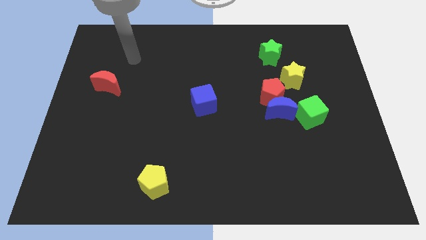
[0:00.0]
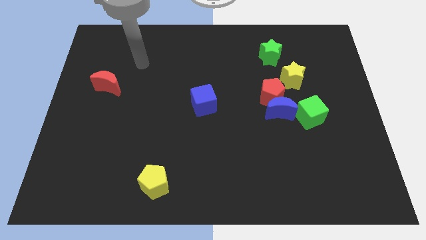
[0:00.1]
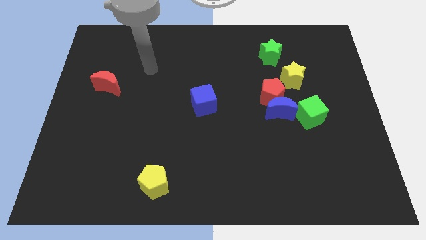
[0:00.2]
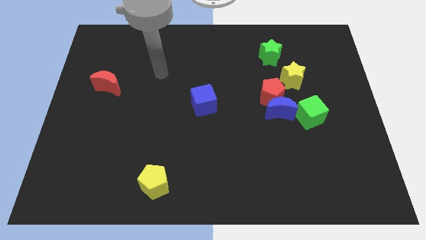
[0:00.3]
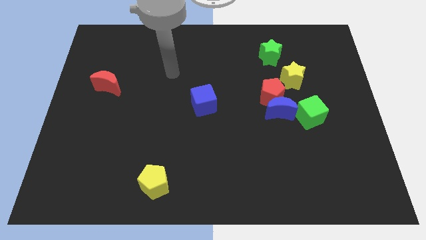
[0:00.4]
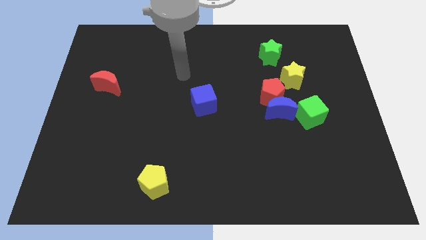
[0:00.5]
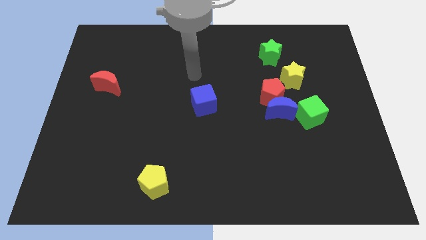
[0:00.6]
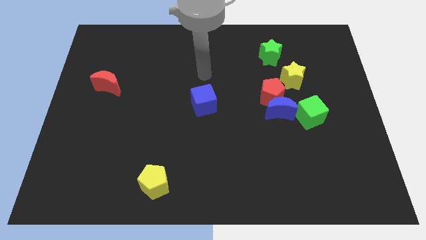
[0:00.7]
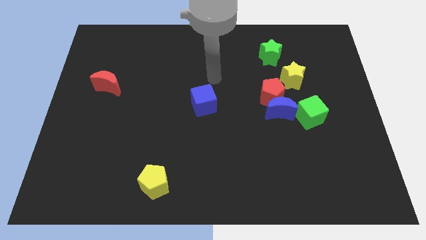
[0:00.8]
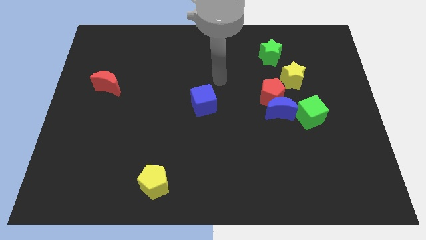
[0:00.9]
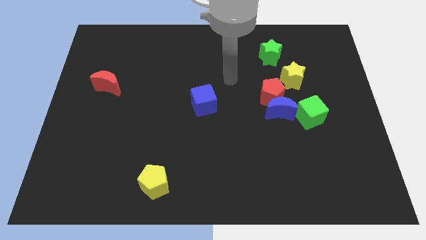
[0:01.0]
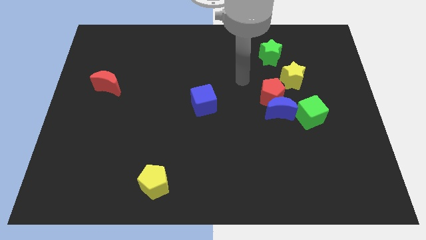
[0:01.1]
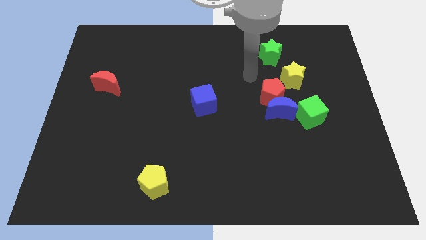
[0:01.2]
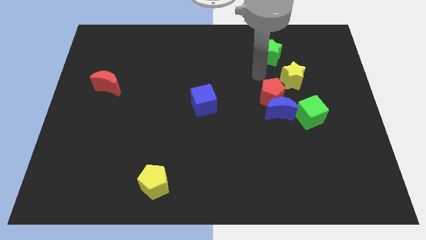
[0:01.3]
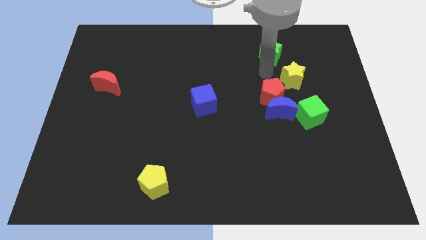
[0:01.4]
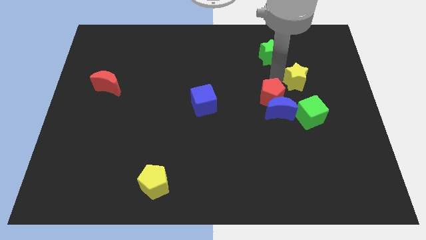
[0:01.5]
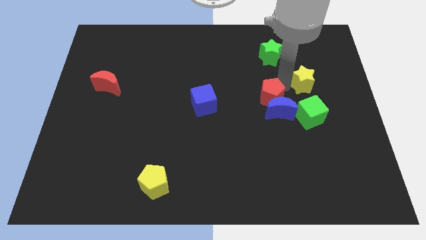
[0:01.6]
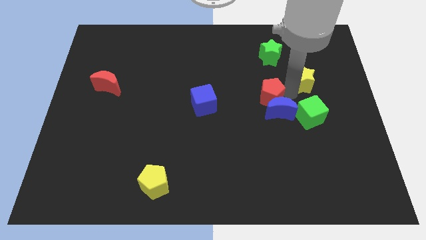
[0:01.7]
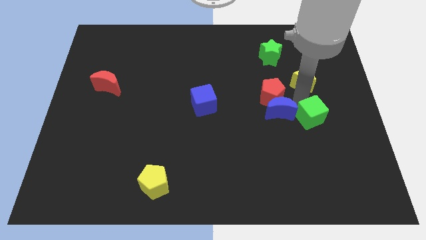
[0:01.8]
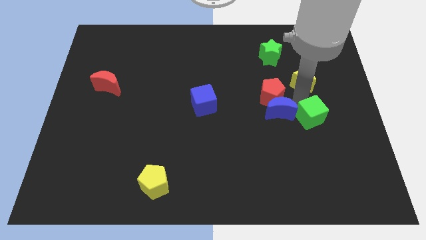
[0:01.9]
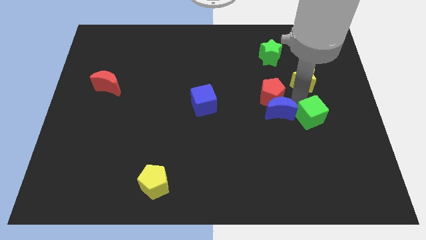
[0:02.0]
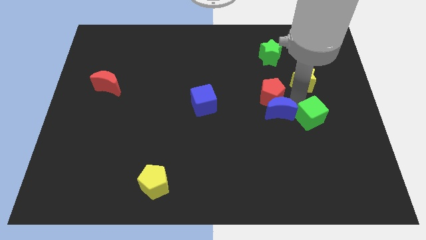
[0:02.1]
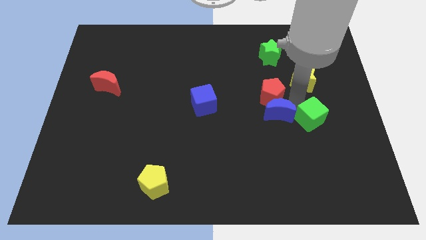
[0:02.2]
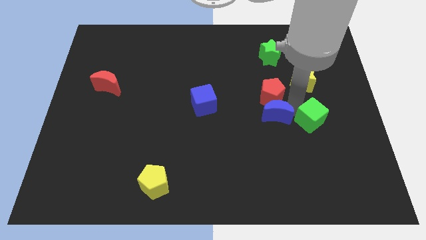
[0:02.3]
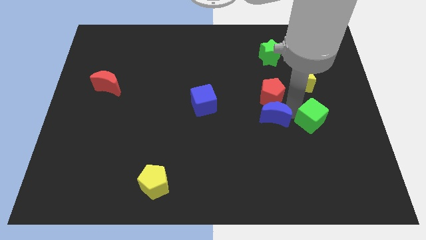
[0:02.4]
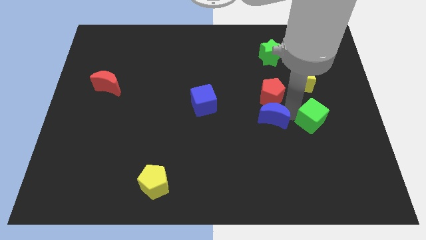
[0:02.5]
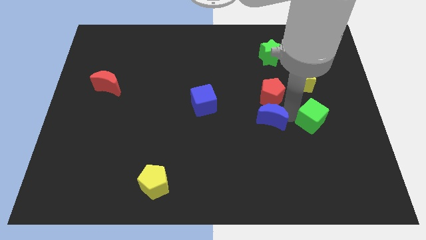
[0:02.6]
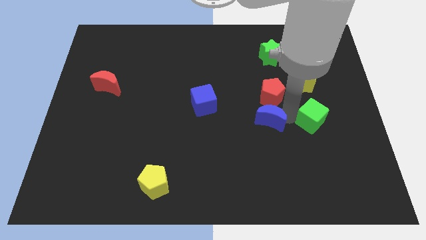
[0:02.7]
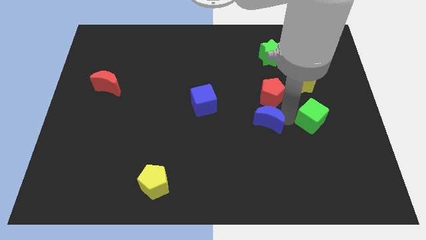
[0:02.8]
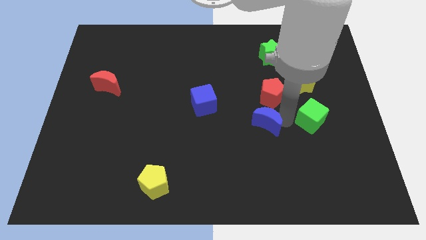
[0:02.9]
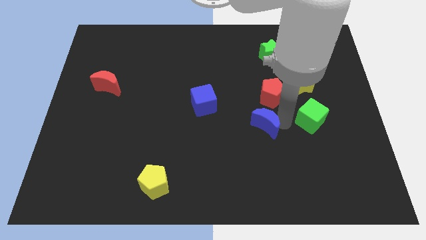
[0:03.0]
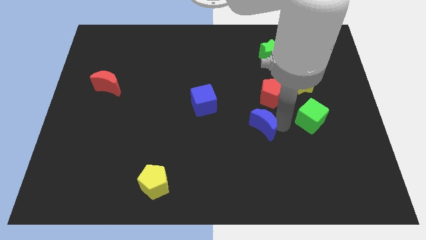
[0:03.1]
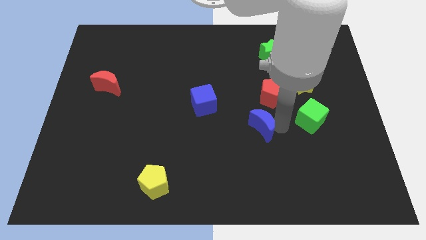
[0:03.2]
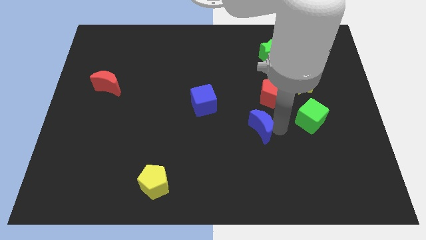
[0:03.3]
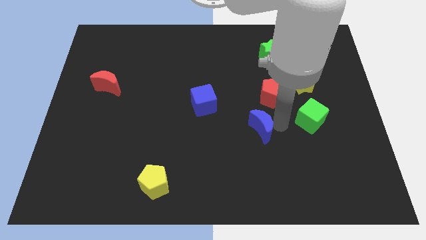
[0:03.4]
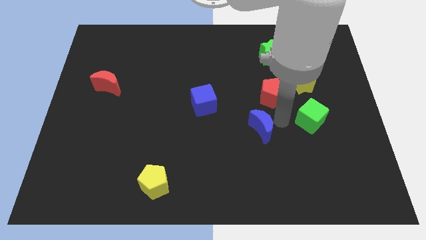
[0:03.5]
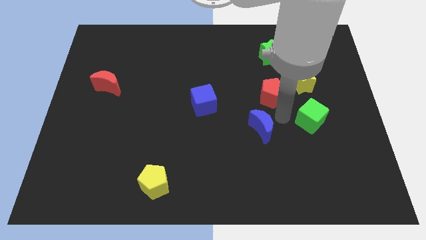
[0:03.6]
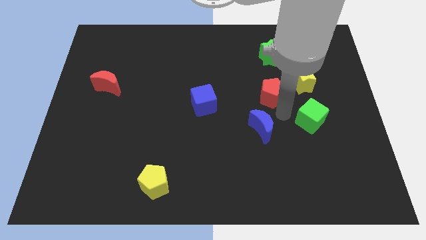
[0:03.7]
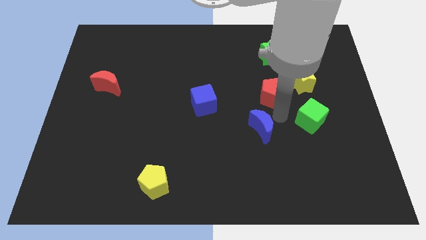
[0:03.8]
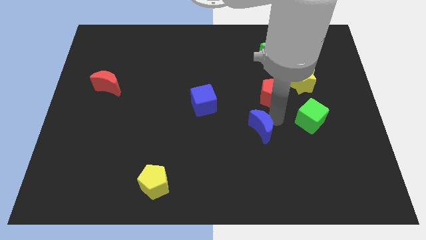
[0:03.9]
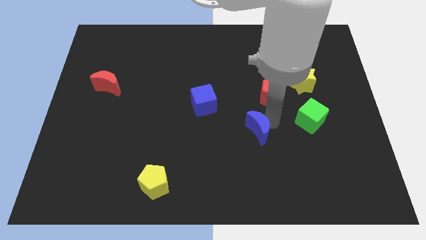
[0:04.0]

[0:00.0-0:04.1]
move the blue moon away from the red pentagon and green cube

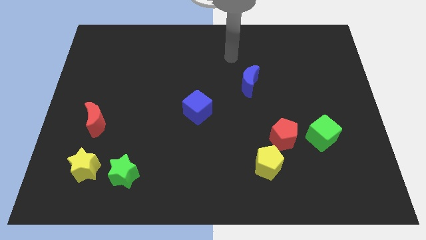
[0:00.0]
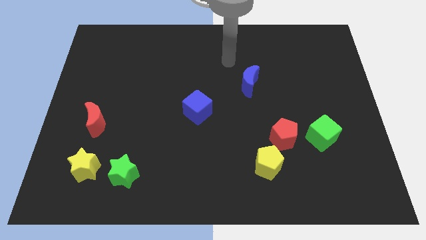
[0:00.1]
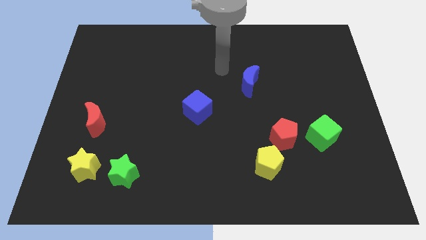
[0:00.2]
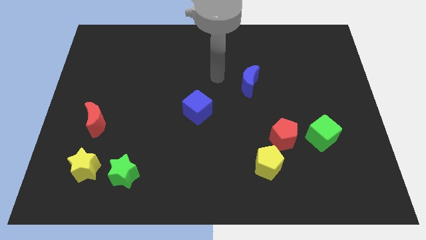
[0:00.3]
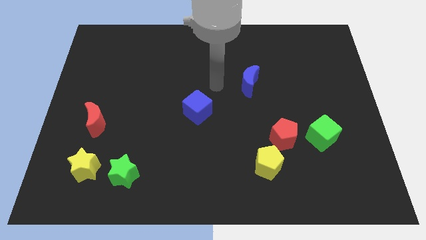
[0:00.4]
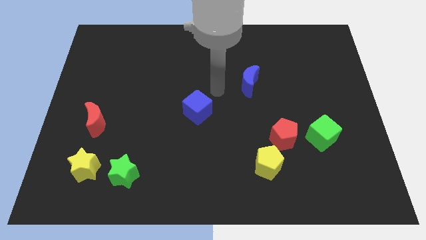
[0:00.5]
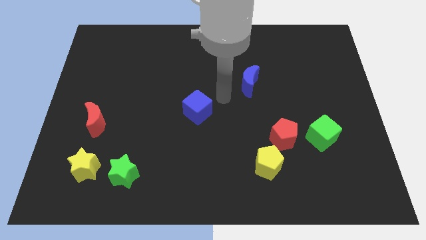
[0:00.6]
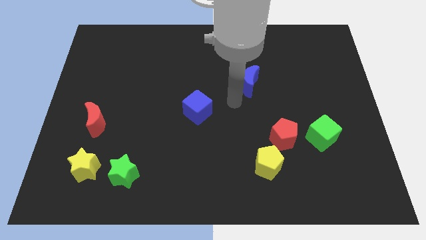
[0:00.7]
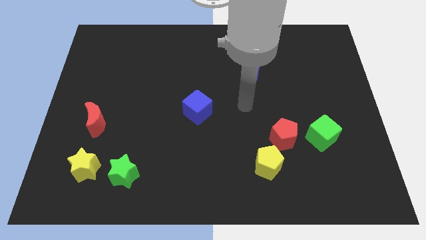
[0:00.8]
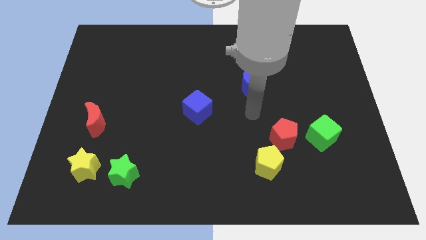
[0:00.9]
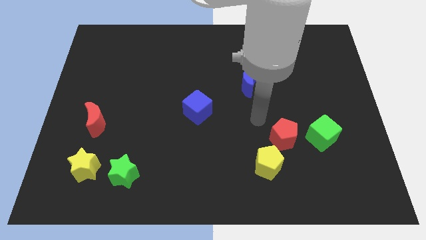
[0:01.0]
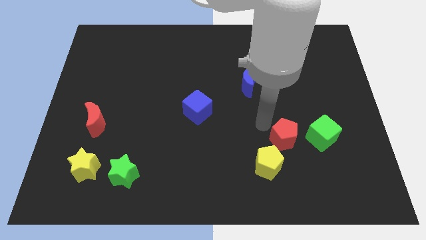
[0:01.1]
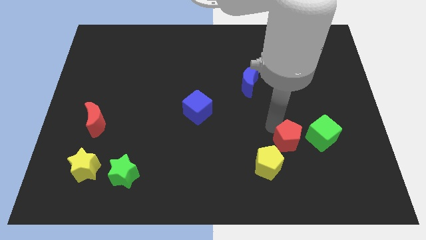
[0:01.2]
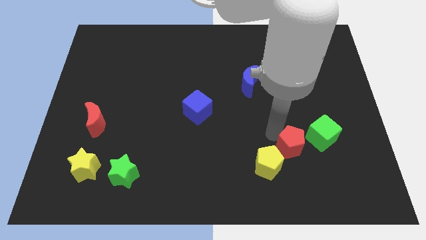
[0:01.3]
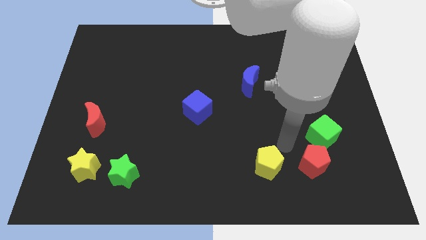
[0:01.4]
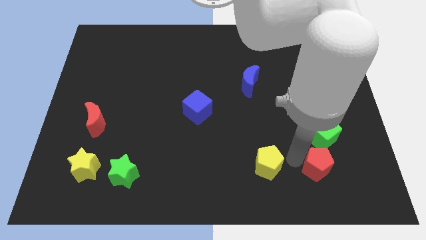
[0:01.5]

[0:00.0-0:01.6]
move the yellow pentagon away from the red pentagon

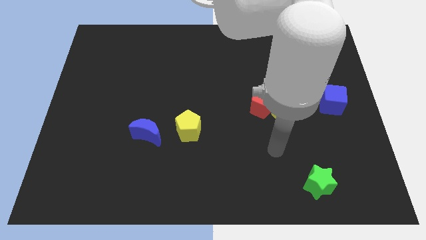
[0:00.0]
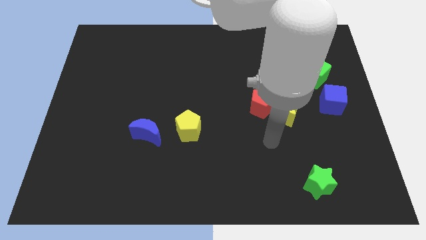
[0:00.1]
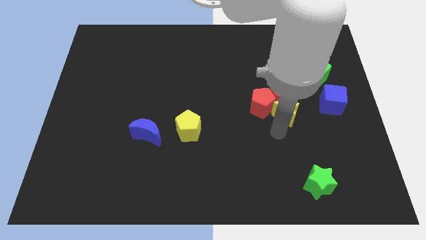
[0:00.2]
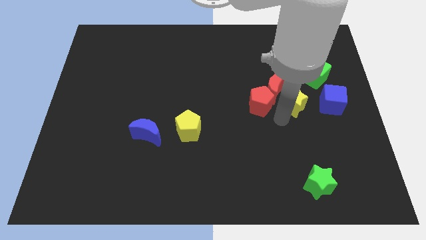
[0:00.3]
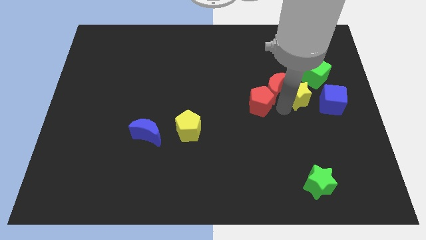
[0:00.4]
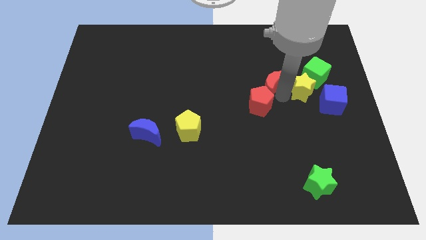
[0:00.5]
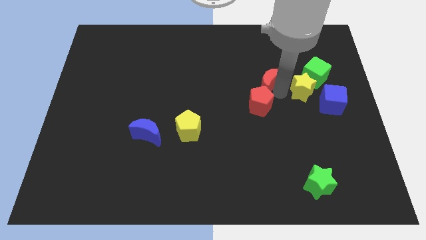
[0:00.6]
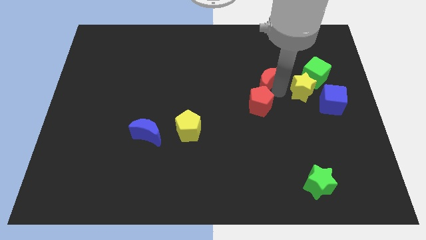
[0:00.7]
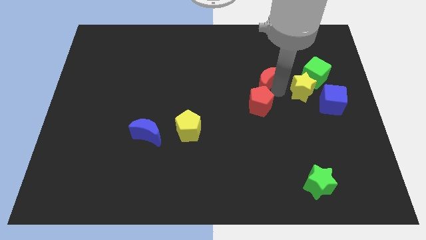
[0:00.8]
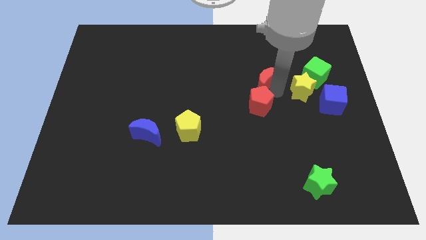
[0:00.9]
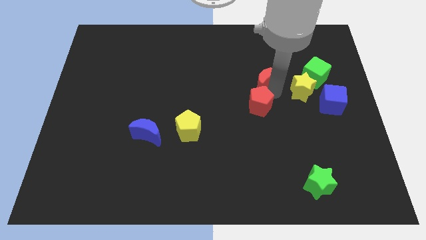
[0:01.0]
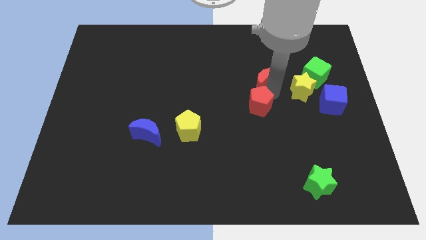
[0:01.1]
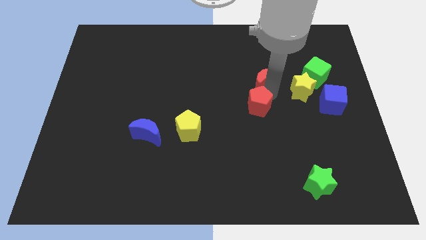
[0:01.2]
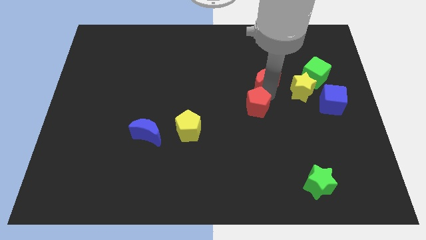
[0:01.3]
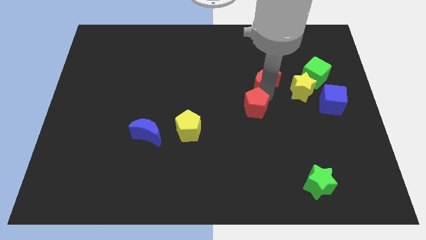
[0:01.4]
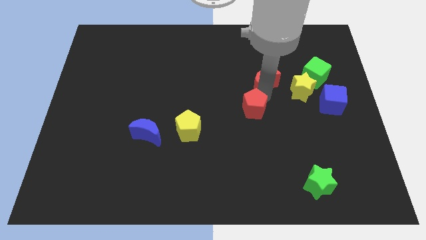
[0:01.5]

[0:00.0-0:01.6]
pull the red pentagon apart from the red moon and yellow star

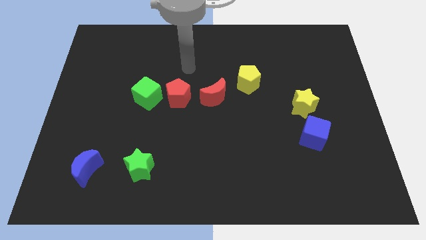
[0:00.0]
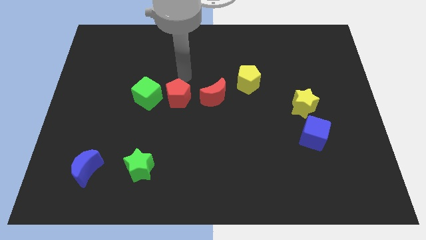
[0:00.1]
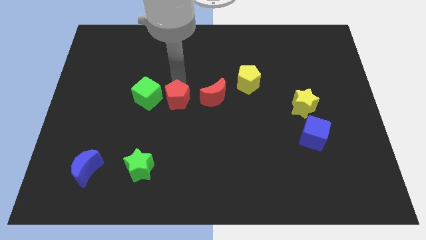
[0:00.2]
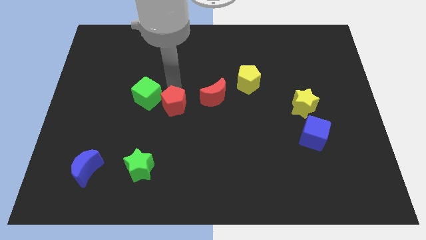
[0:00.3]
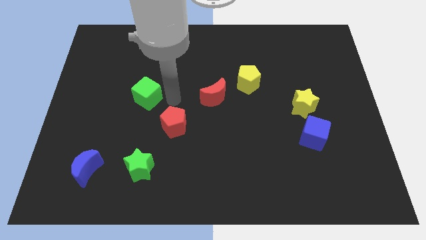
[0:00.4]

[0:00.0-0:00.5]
pull the green cube apart from the red pentagon

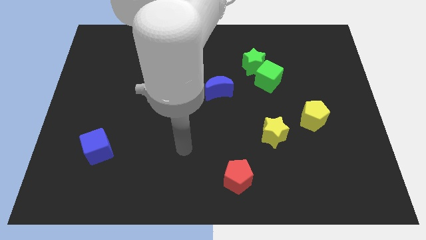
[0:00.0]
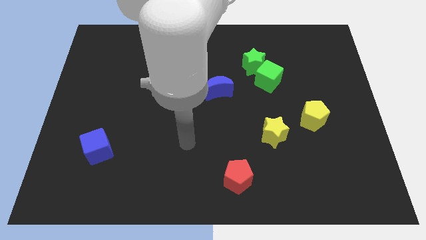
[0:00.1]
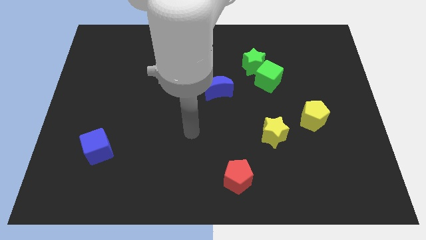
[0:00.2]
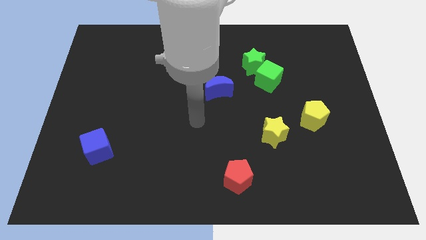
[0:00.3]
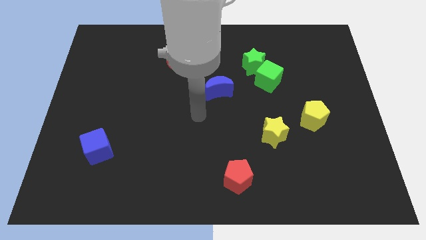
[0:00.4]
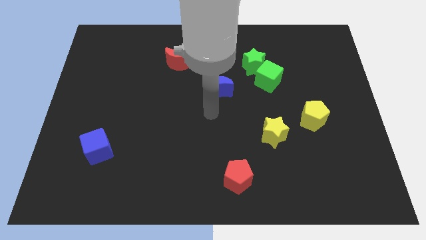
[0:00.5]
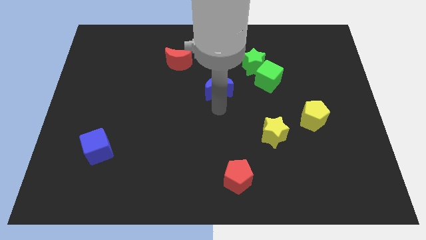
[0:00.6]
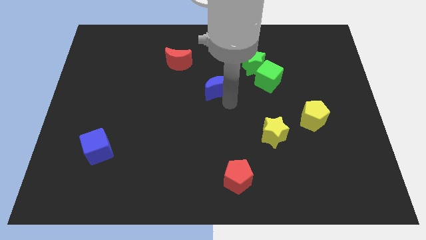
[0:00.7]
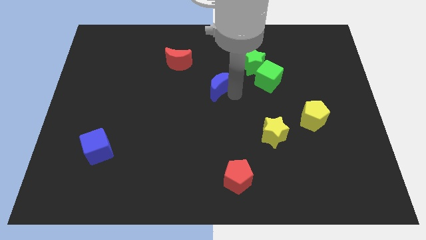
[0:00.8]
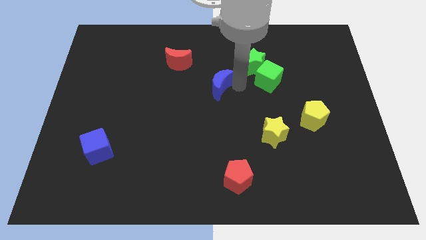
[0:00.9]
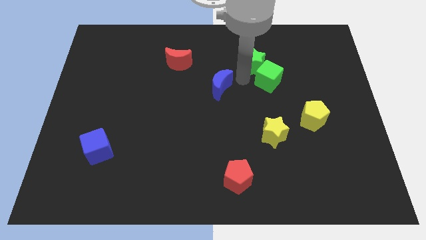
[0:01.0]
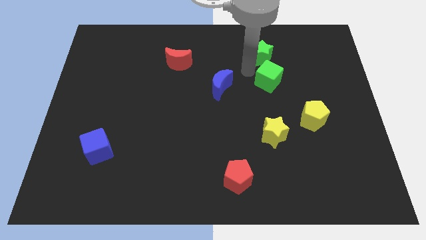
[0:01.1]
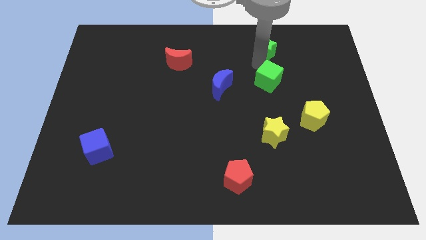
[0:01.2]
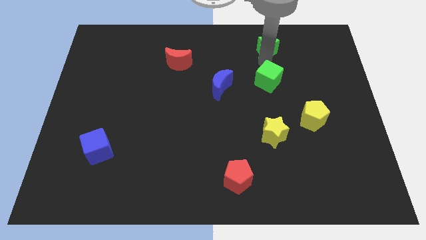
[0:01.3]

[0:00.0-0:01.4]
pull the green cube apart from the green star
